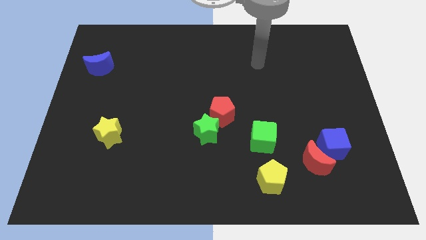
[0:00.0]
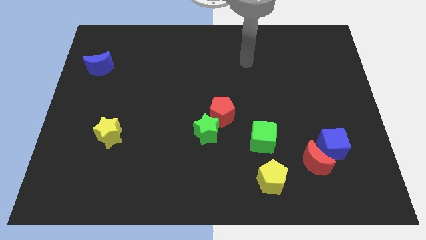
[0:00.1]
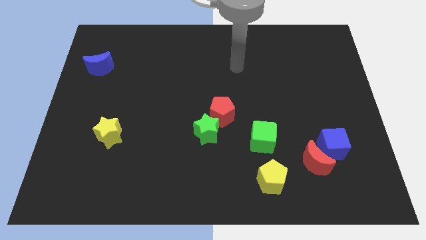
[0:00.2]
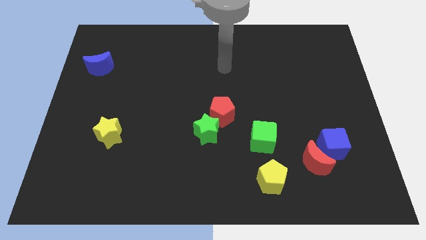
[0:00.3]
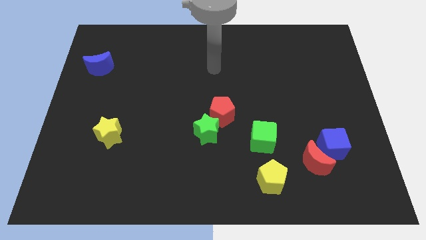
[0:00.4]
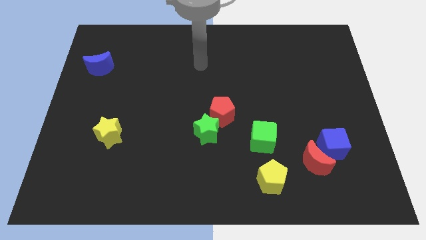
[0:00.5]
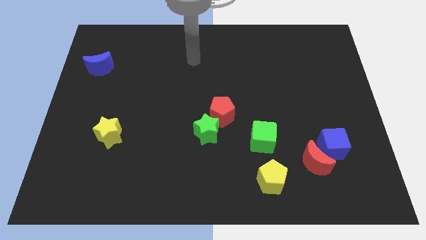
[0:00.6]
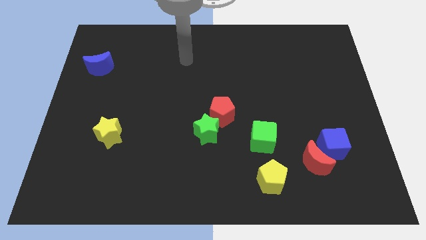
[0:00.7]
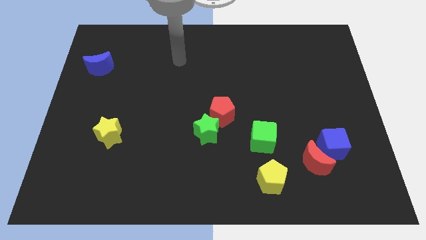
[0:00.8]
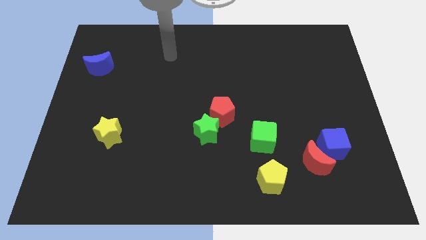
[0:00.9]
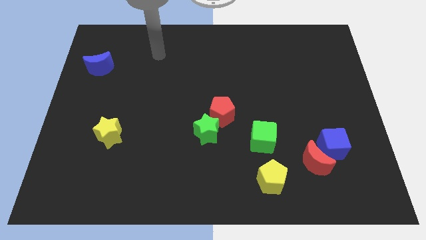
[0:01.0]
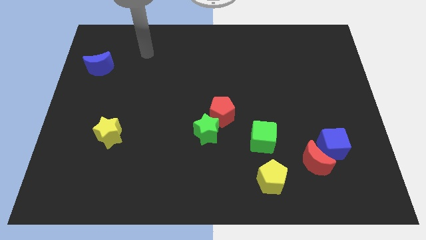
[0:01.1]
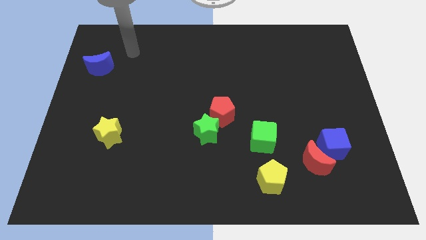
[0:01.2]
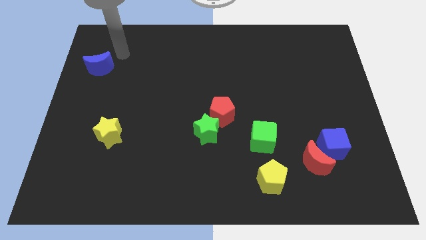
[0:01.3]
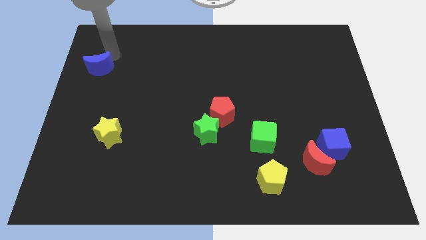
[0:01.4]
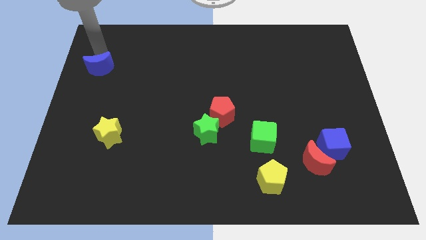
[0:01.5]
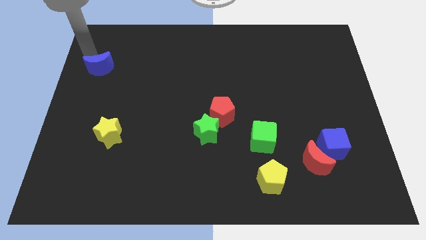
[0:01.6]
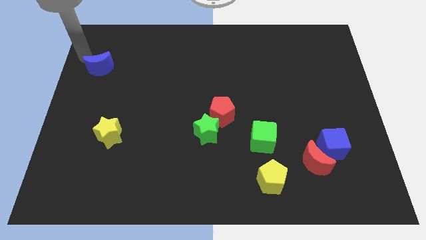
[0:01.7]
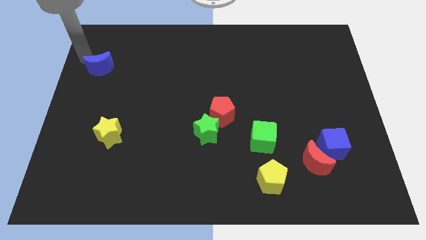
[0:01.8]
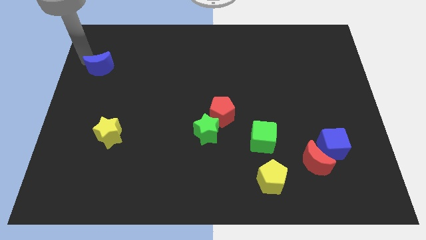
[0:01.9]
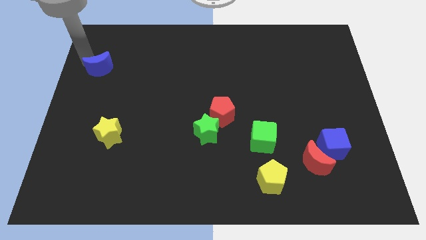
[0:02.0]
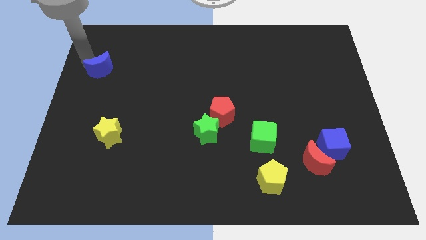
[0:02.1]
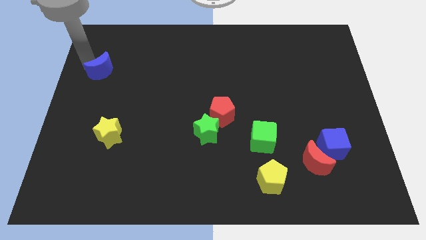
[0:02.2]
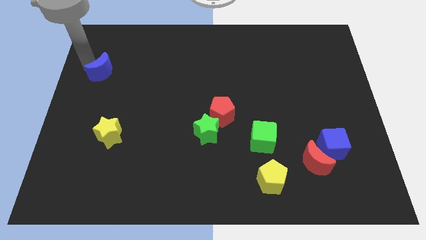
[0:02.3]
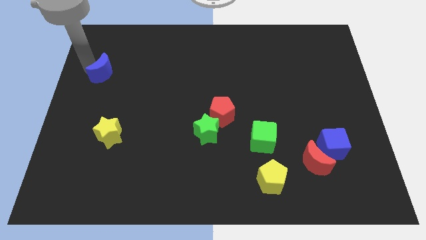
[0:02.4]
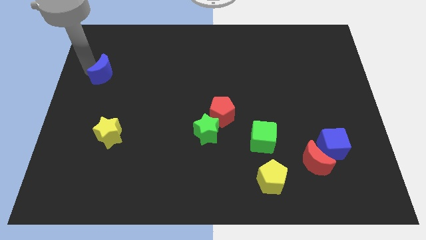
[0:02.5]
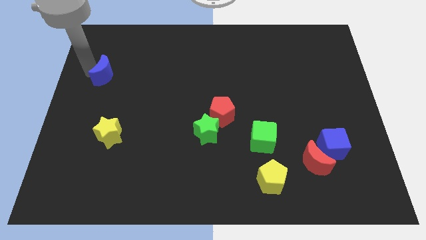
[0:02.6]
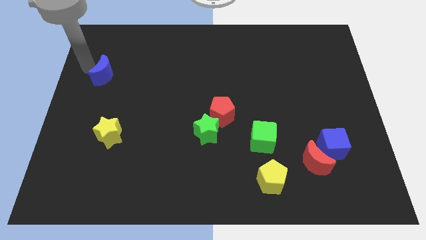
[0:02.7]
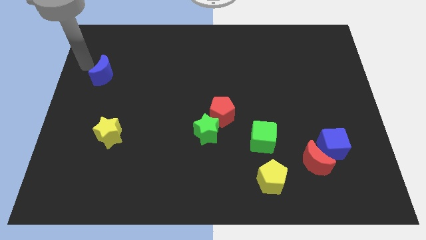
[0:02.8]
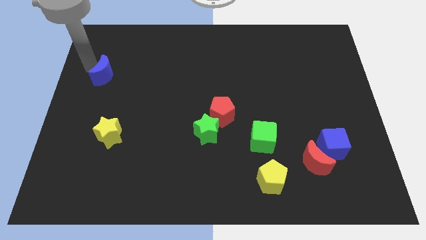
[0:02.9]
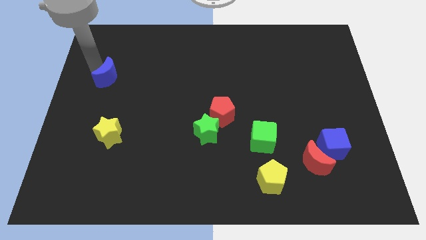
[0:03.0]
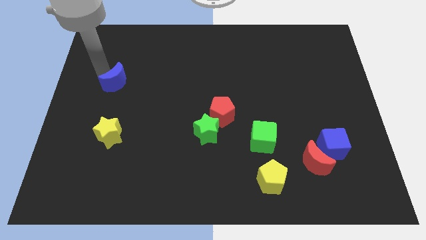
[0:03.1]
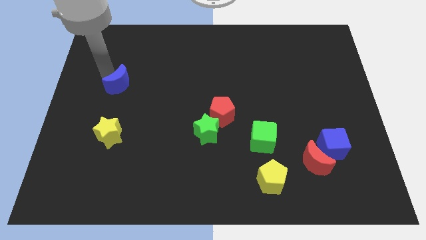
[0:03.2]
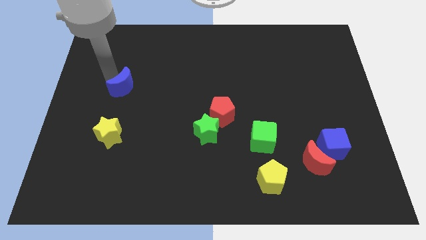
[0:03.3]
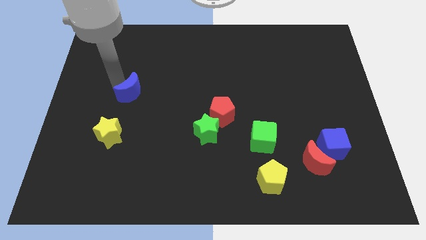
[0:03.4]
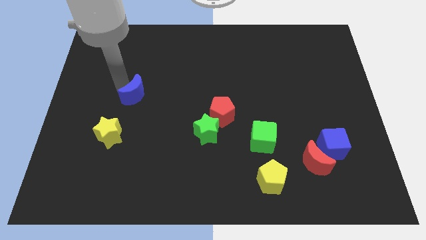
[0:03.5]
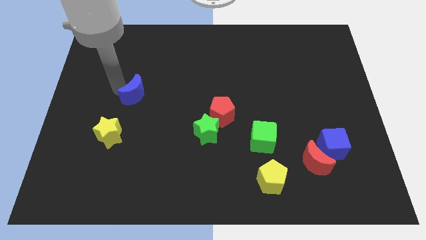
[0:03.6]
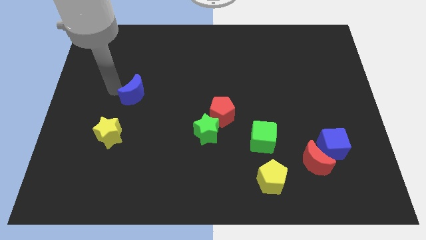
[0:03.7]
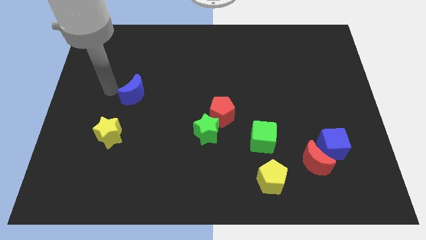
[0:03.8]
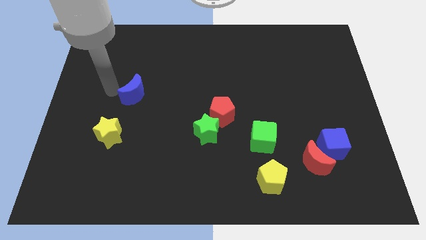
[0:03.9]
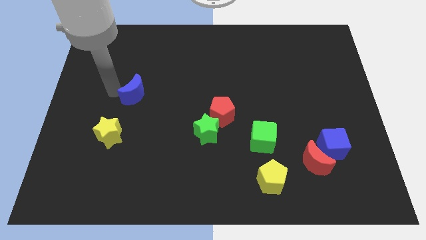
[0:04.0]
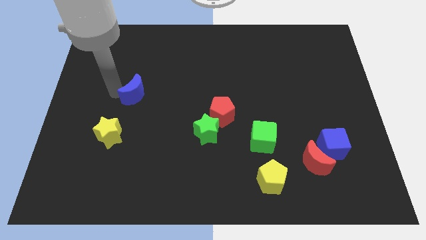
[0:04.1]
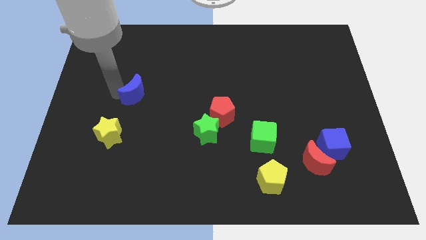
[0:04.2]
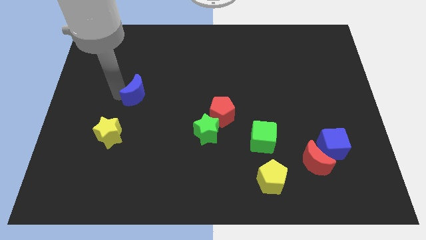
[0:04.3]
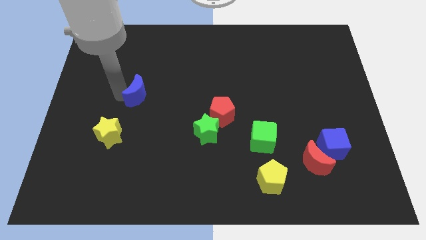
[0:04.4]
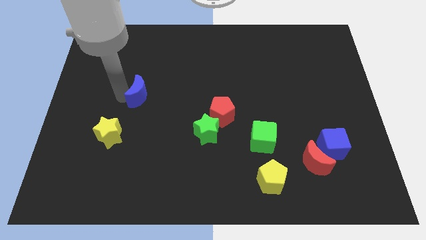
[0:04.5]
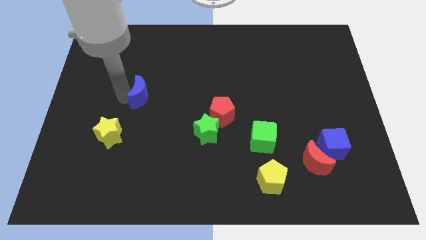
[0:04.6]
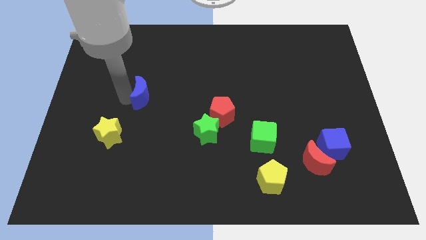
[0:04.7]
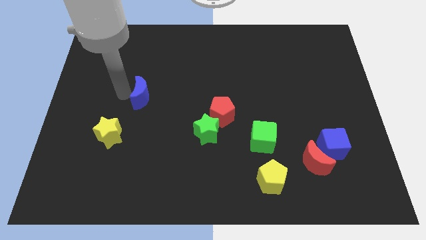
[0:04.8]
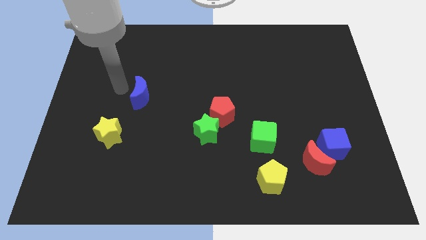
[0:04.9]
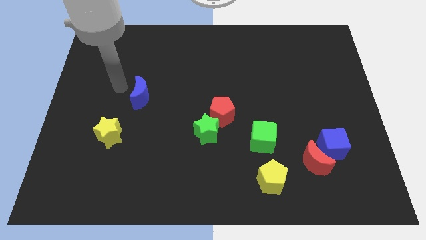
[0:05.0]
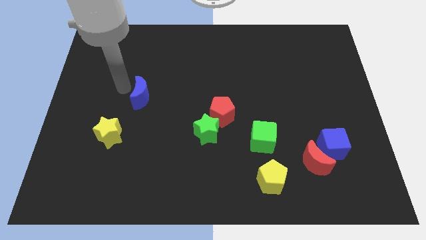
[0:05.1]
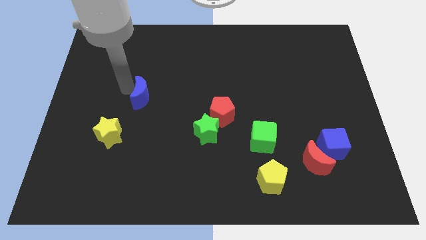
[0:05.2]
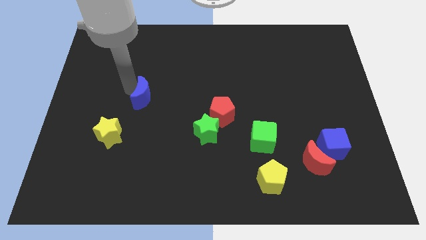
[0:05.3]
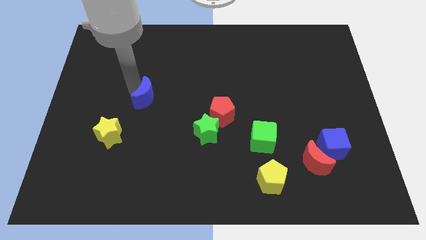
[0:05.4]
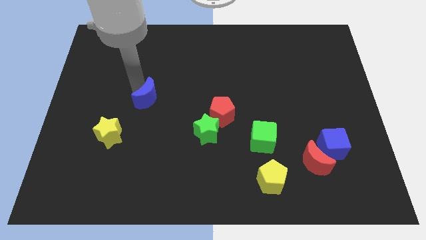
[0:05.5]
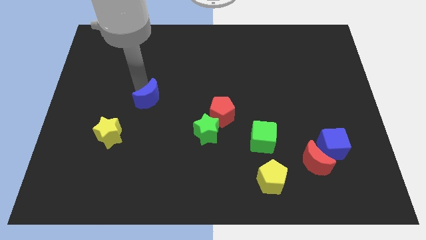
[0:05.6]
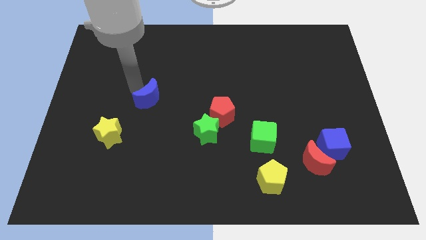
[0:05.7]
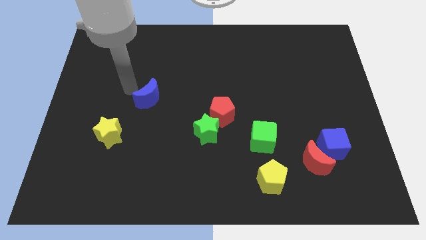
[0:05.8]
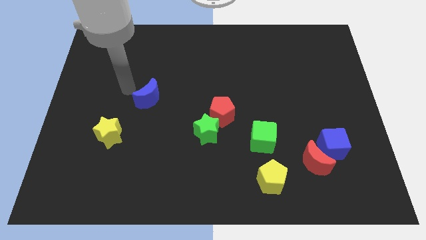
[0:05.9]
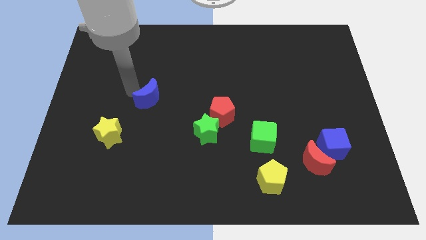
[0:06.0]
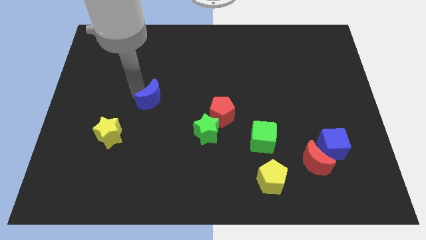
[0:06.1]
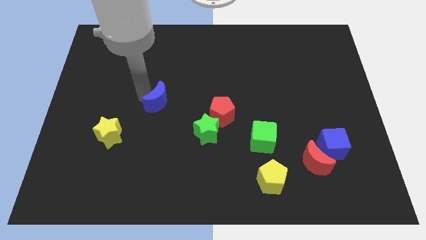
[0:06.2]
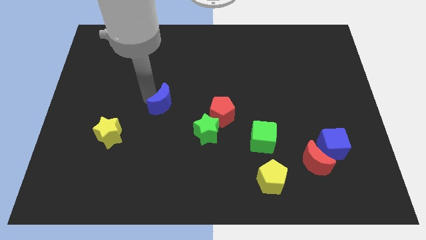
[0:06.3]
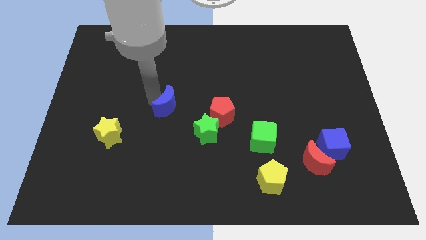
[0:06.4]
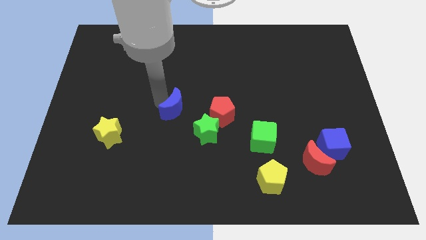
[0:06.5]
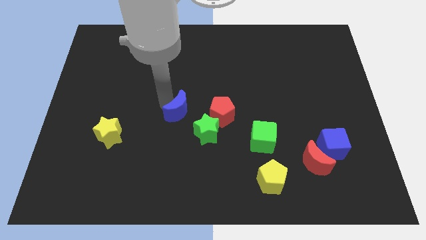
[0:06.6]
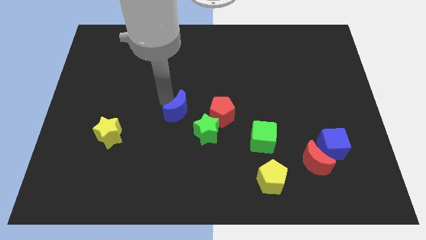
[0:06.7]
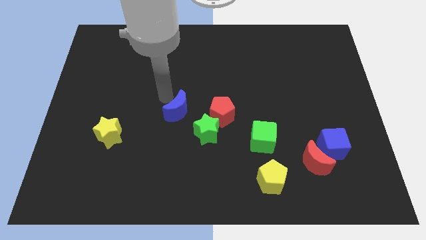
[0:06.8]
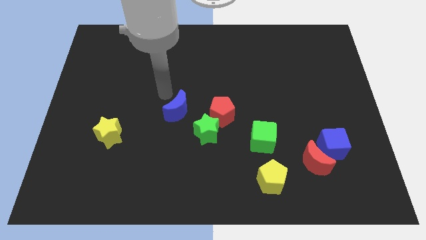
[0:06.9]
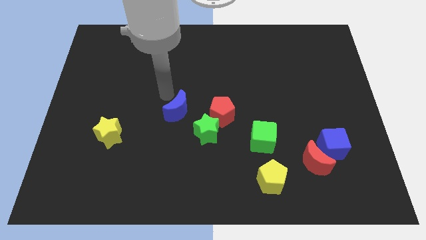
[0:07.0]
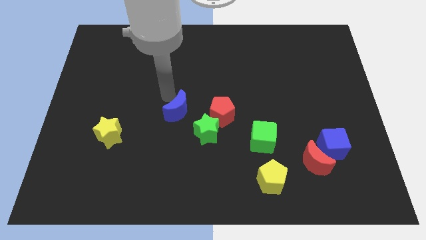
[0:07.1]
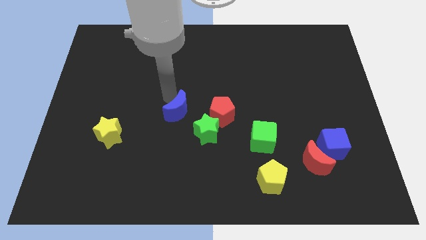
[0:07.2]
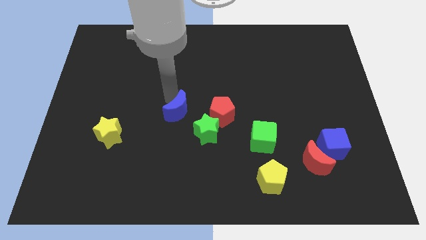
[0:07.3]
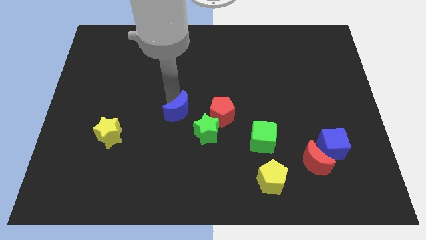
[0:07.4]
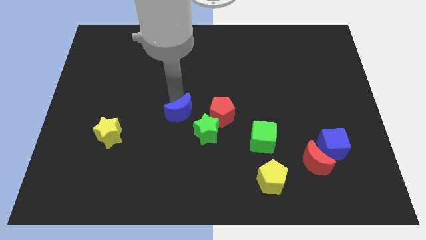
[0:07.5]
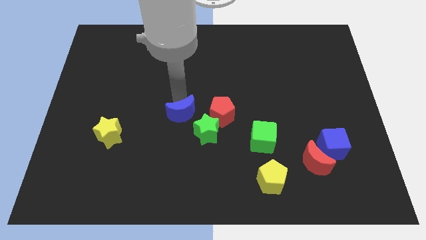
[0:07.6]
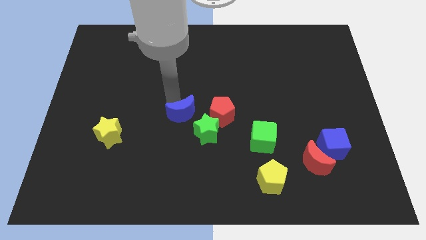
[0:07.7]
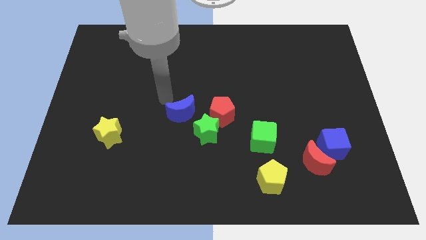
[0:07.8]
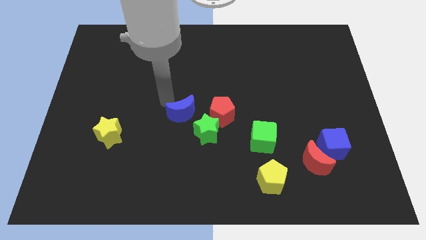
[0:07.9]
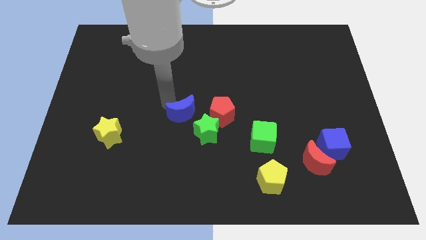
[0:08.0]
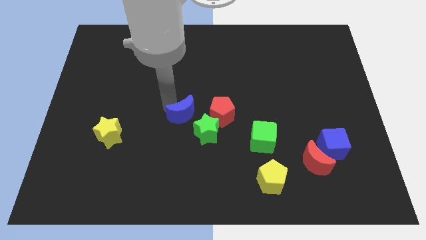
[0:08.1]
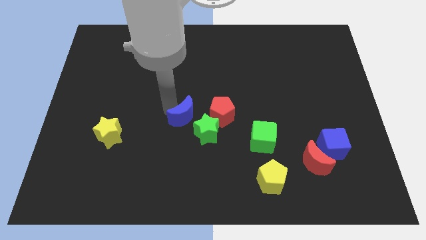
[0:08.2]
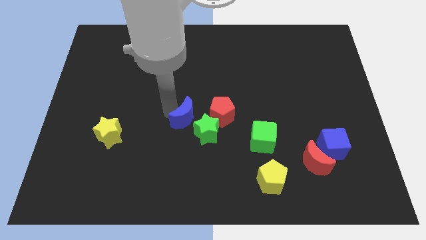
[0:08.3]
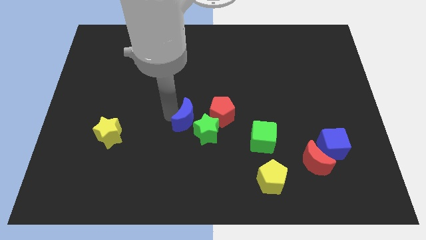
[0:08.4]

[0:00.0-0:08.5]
push the blue moon next to the green star
